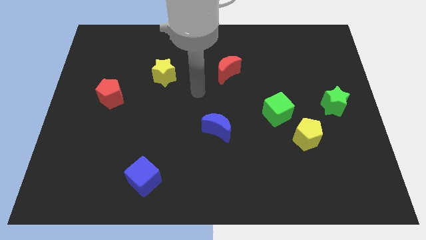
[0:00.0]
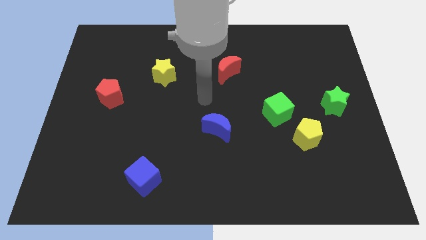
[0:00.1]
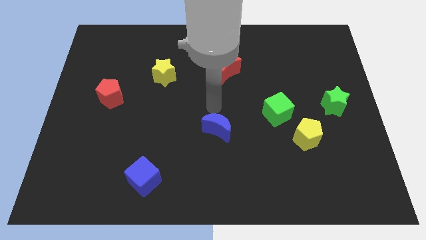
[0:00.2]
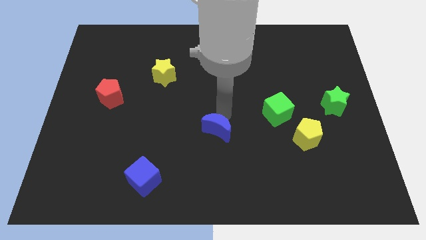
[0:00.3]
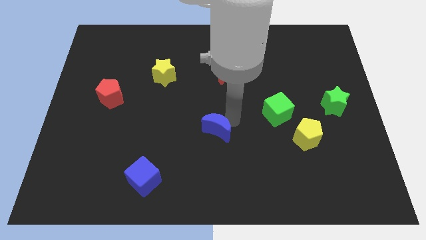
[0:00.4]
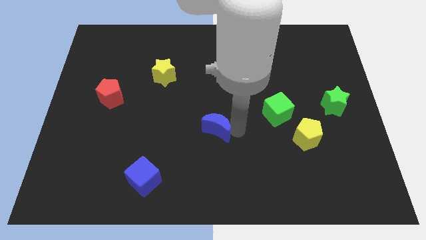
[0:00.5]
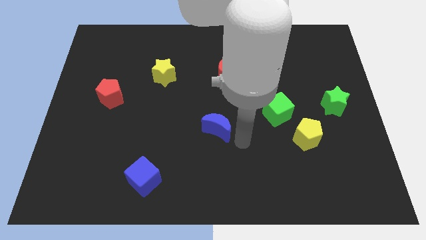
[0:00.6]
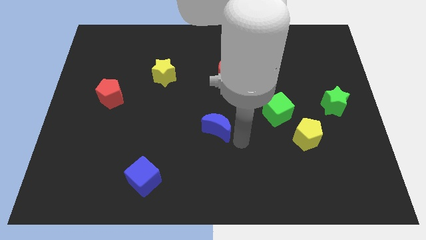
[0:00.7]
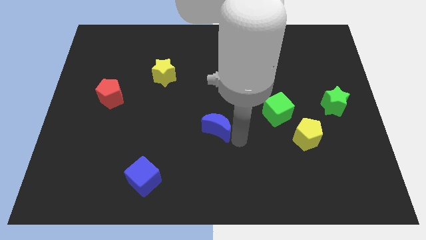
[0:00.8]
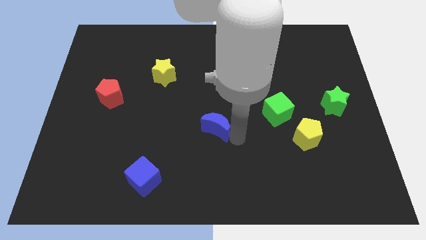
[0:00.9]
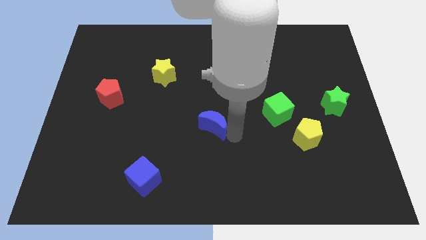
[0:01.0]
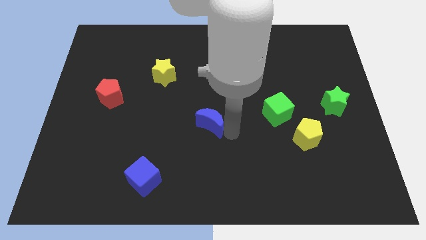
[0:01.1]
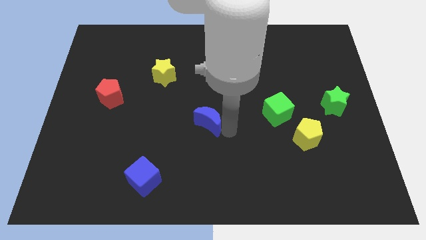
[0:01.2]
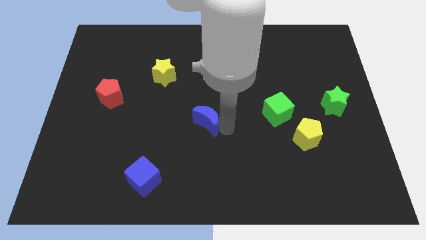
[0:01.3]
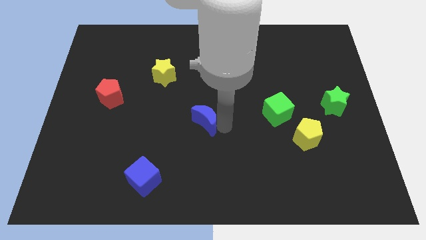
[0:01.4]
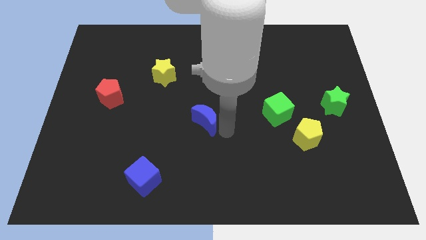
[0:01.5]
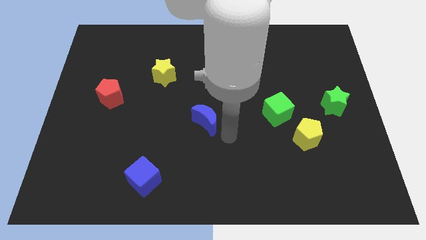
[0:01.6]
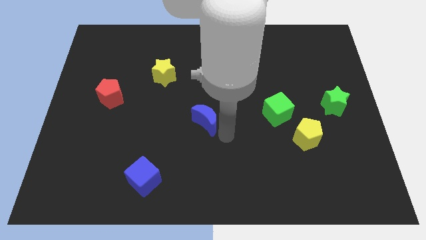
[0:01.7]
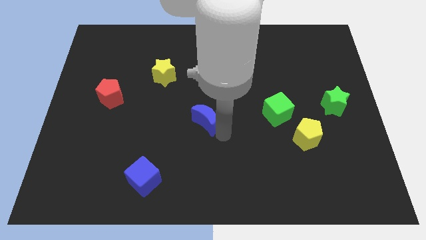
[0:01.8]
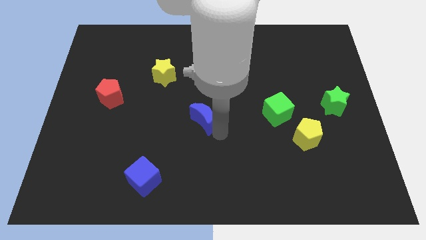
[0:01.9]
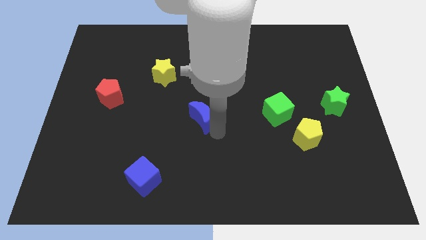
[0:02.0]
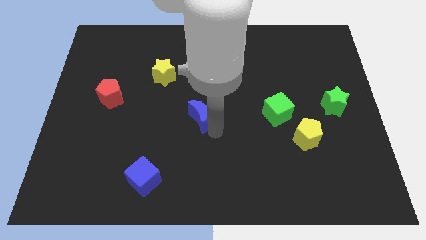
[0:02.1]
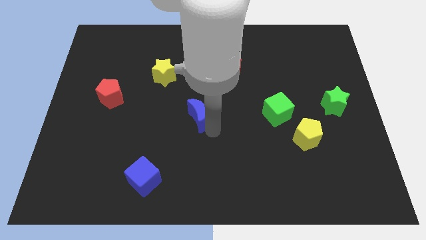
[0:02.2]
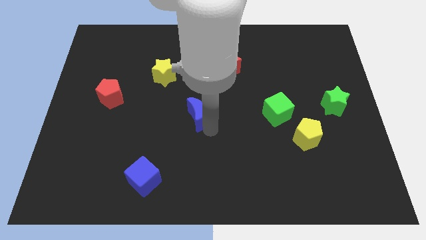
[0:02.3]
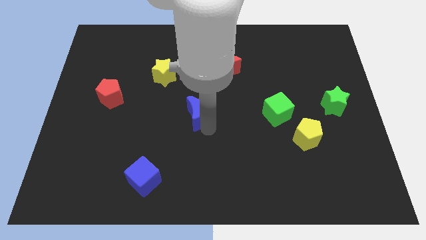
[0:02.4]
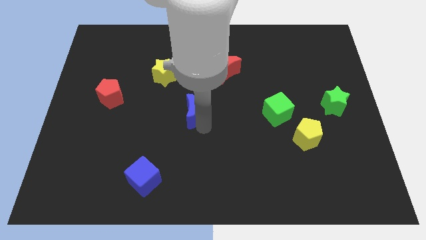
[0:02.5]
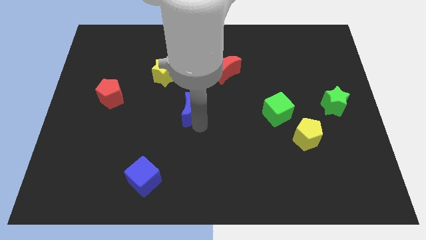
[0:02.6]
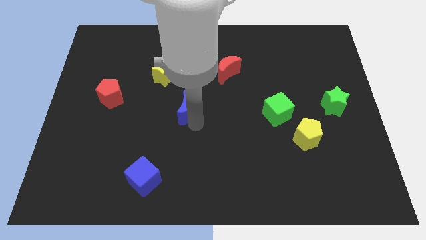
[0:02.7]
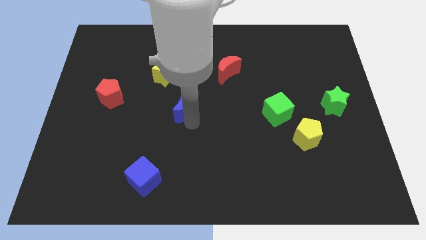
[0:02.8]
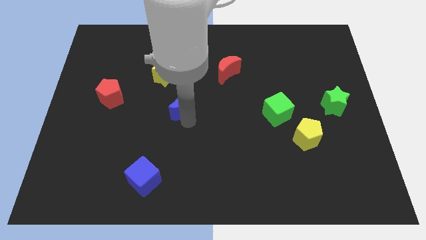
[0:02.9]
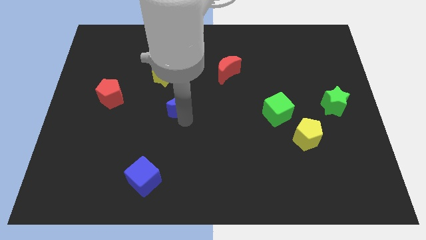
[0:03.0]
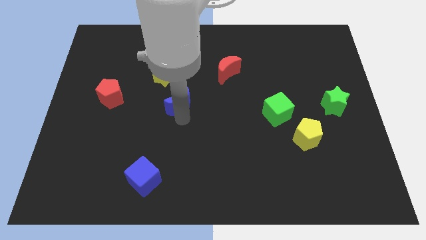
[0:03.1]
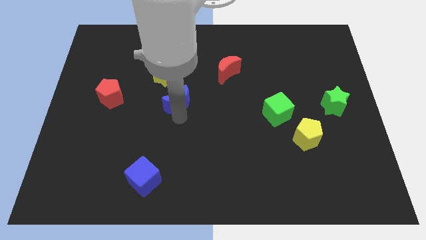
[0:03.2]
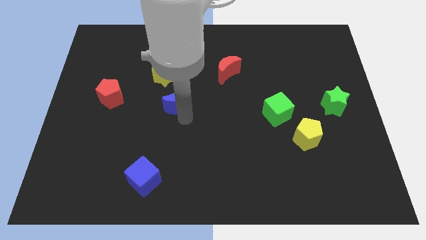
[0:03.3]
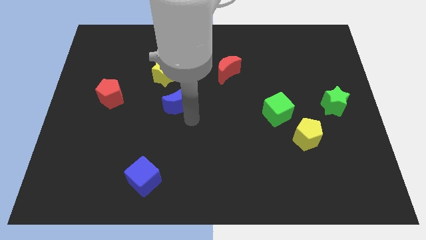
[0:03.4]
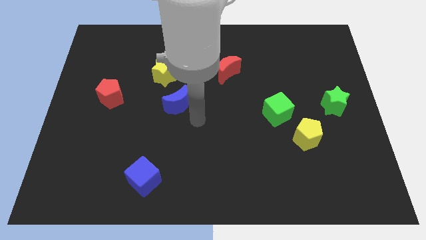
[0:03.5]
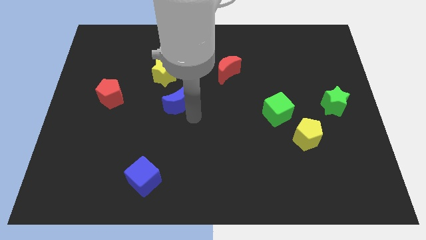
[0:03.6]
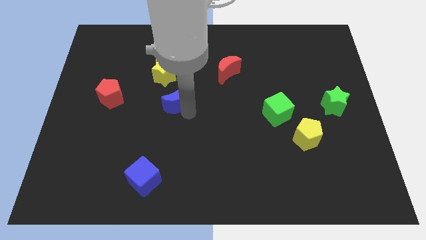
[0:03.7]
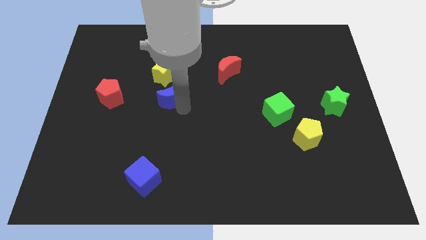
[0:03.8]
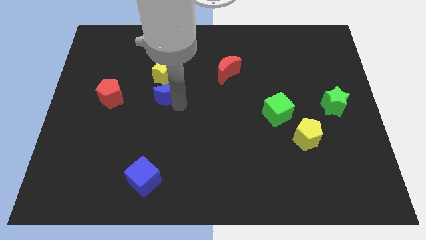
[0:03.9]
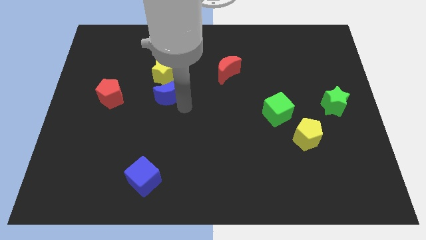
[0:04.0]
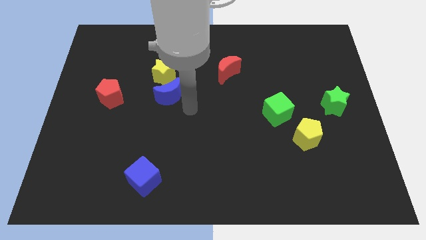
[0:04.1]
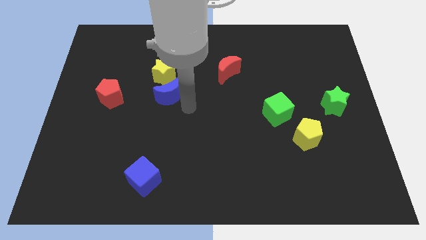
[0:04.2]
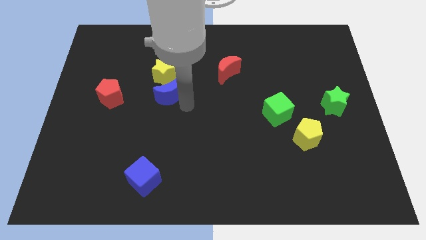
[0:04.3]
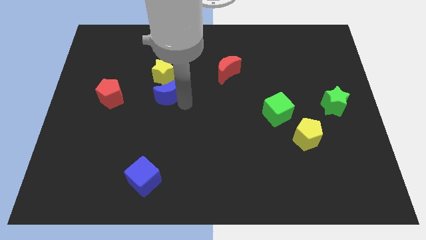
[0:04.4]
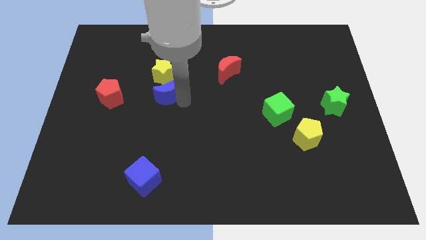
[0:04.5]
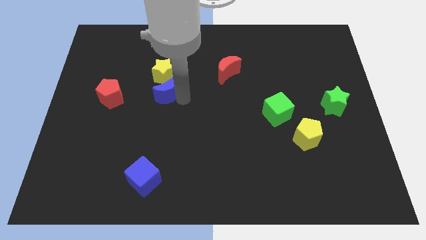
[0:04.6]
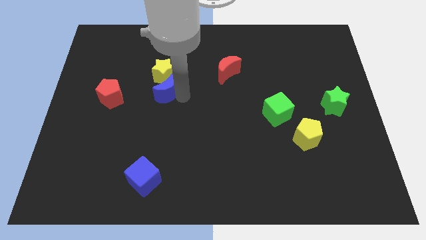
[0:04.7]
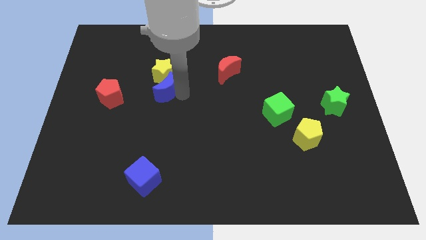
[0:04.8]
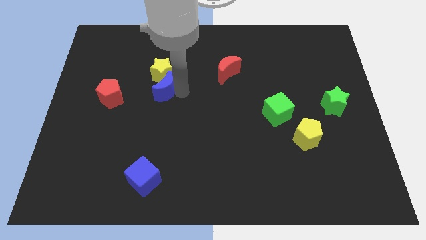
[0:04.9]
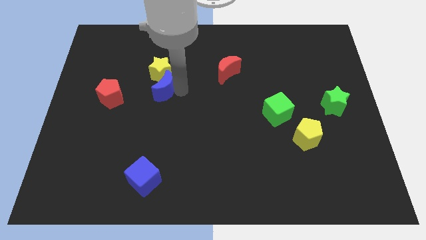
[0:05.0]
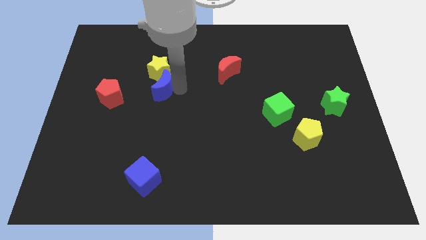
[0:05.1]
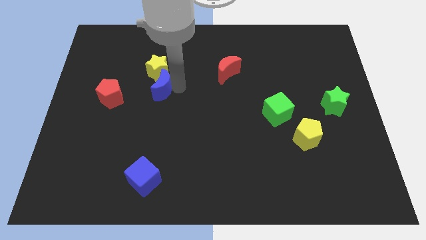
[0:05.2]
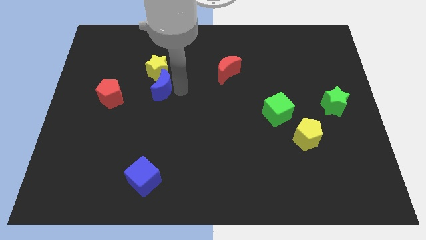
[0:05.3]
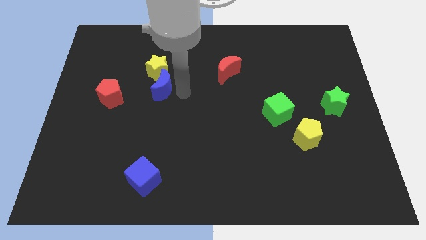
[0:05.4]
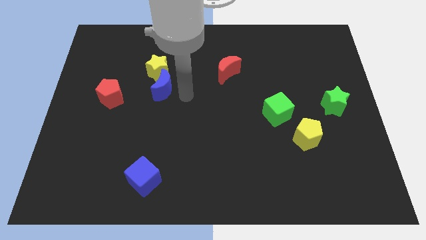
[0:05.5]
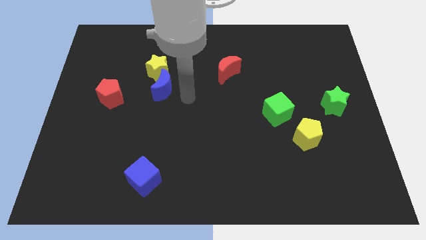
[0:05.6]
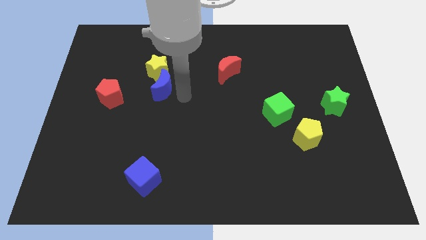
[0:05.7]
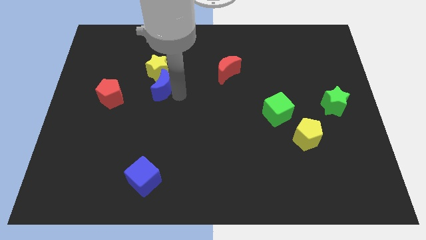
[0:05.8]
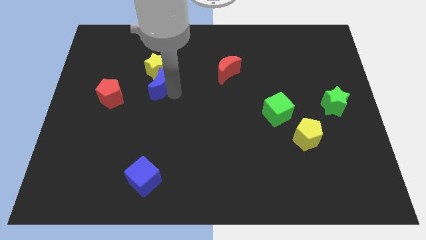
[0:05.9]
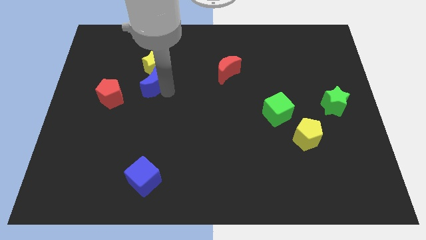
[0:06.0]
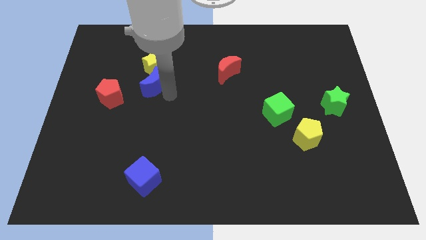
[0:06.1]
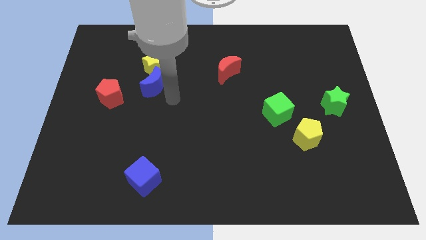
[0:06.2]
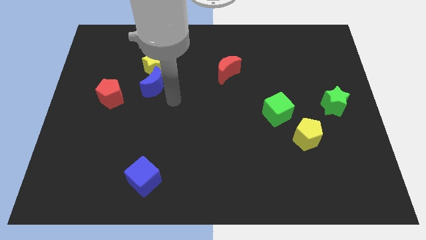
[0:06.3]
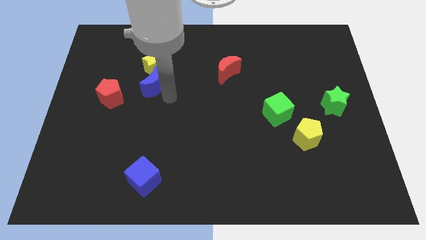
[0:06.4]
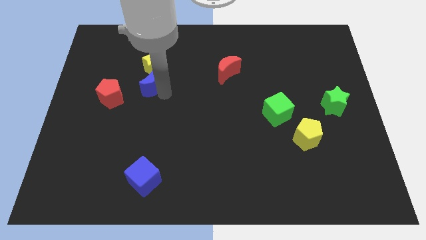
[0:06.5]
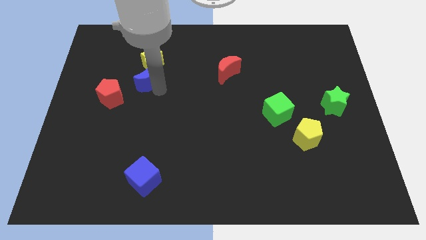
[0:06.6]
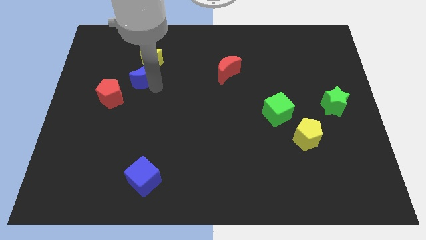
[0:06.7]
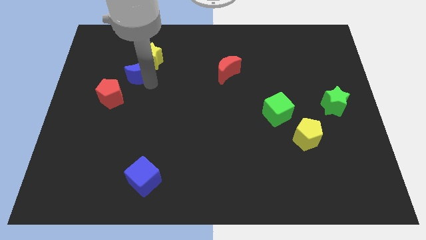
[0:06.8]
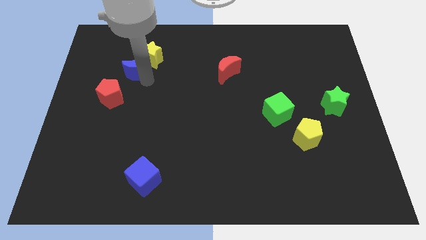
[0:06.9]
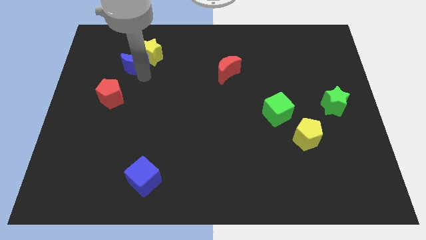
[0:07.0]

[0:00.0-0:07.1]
put the blue moon to the top of the red pentagon
